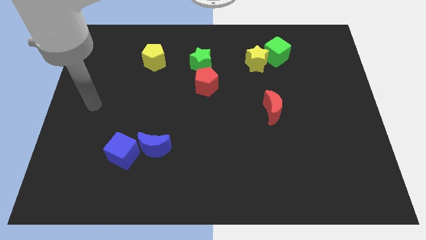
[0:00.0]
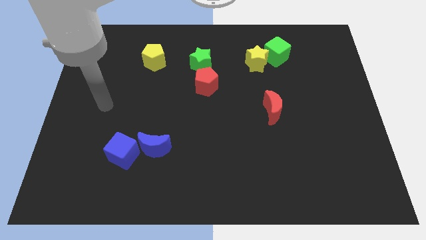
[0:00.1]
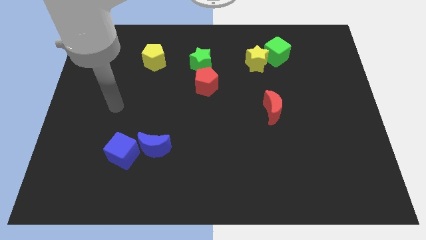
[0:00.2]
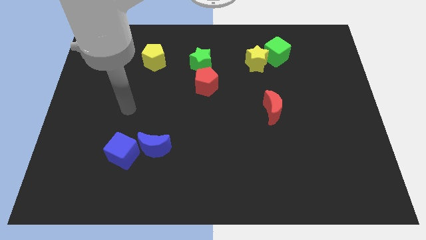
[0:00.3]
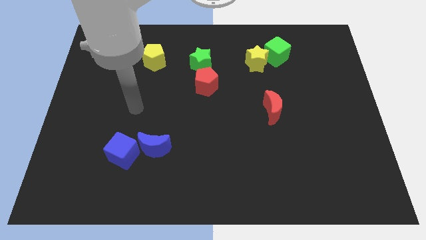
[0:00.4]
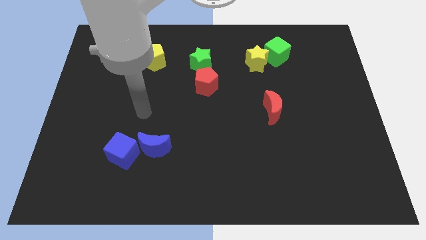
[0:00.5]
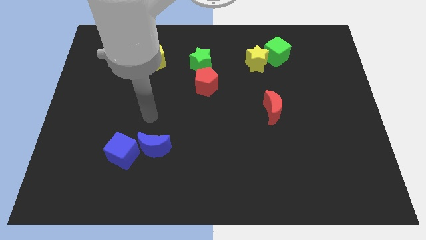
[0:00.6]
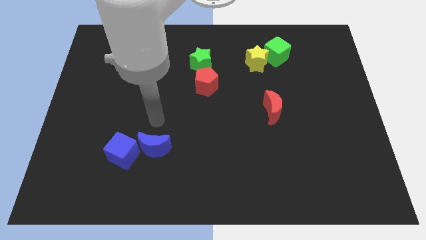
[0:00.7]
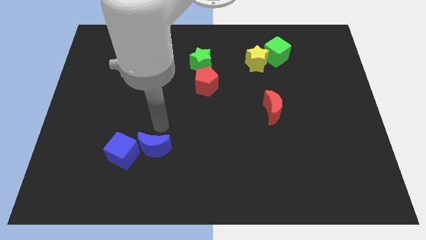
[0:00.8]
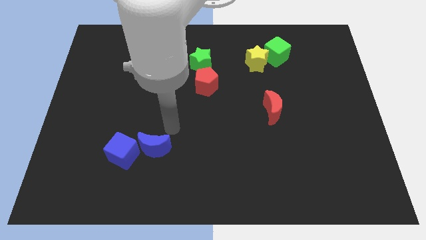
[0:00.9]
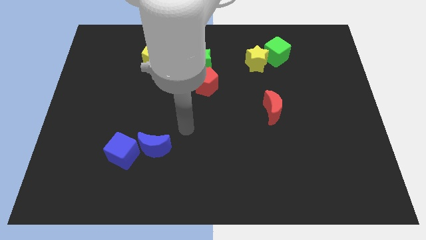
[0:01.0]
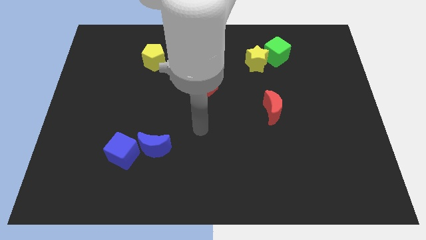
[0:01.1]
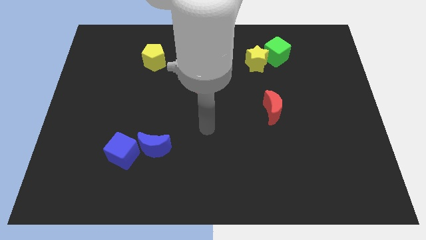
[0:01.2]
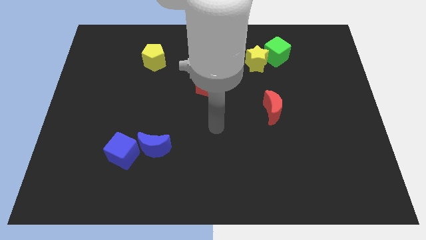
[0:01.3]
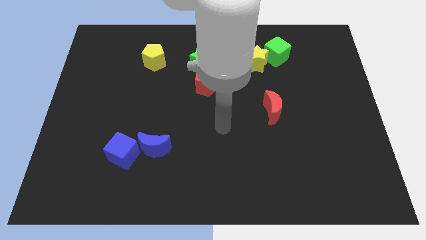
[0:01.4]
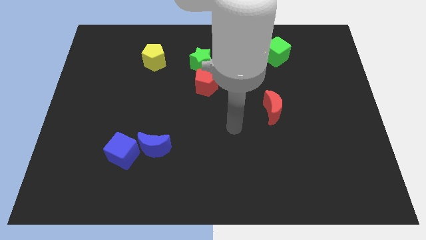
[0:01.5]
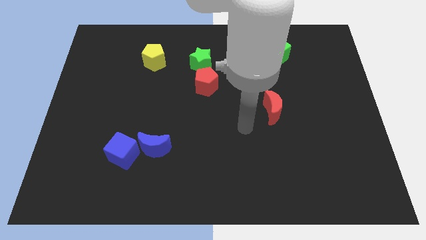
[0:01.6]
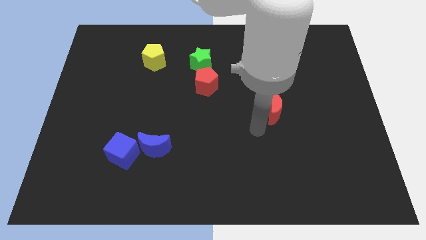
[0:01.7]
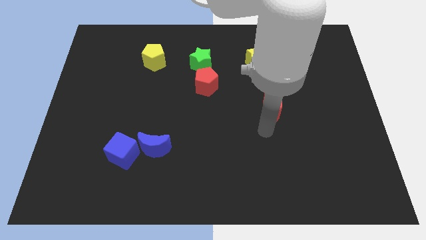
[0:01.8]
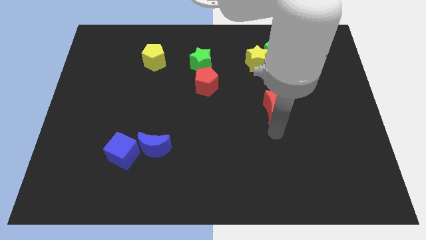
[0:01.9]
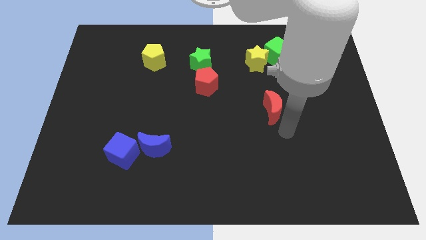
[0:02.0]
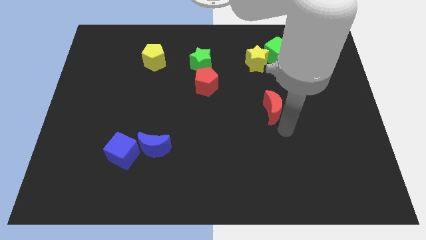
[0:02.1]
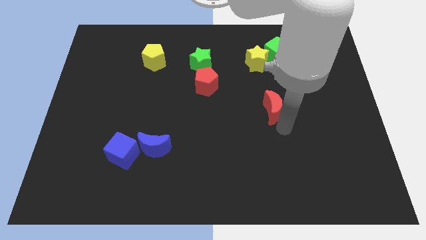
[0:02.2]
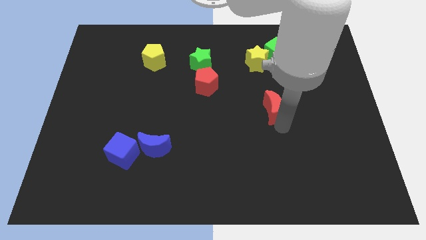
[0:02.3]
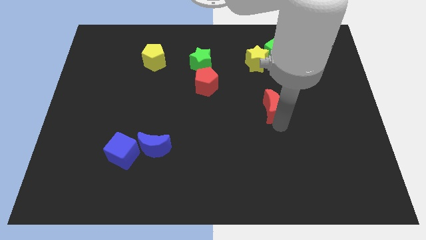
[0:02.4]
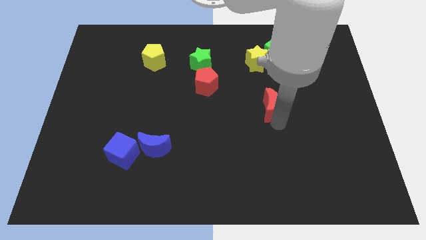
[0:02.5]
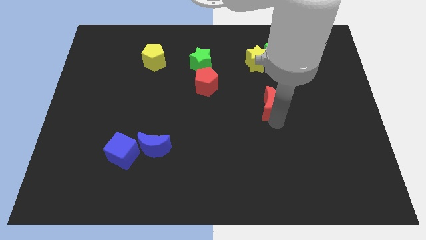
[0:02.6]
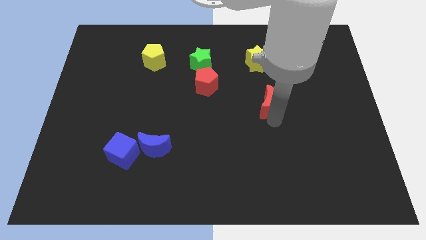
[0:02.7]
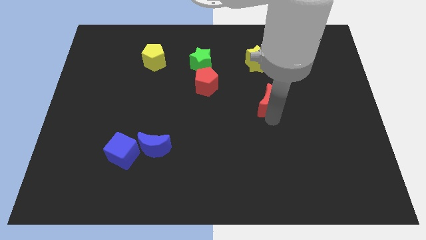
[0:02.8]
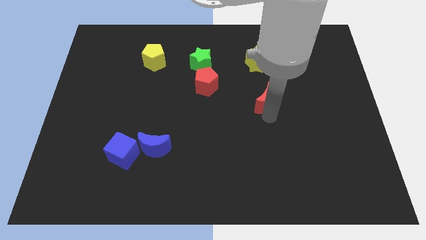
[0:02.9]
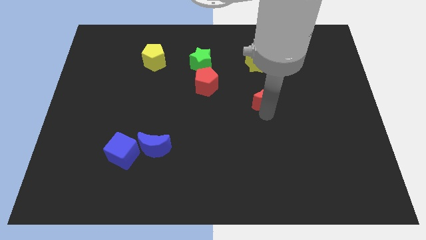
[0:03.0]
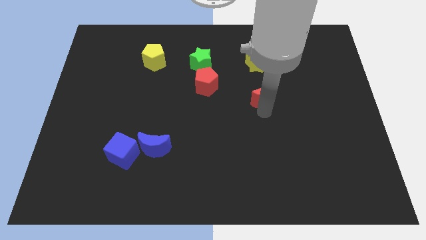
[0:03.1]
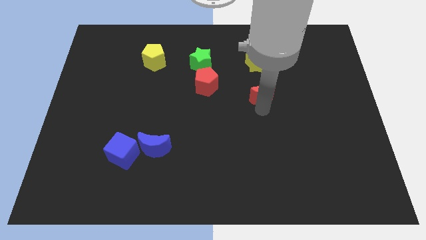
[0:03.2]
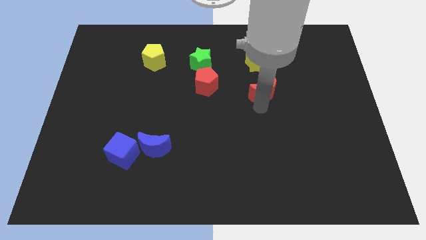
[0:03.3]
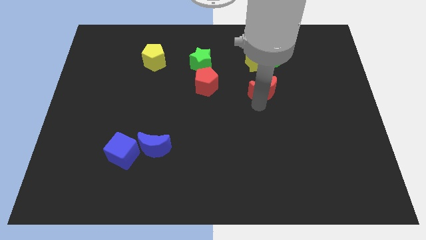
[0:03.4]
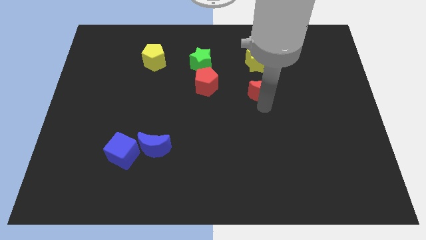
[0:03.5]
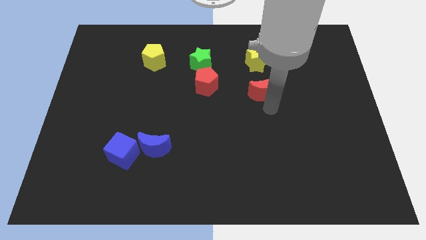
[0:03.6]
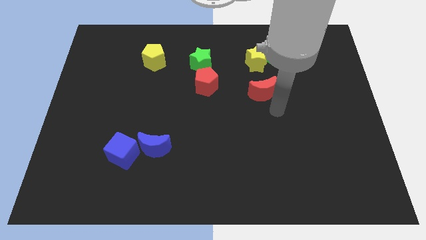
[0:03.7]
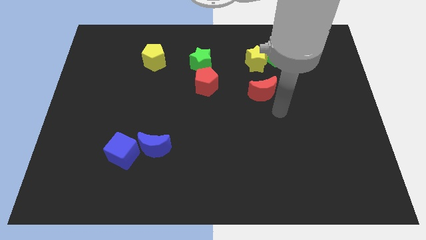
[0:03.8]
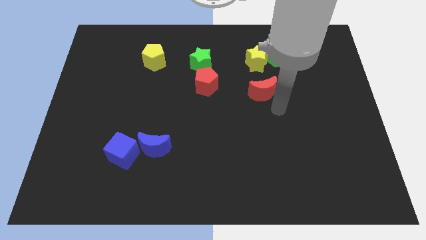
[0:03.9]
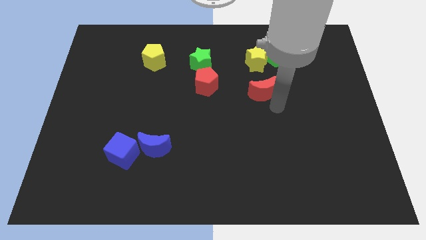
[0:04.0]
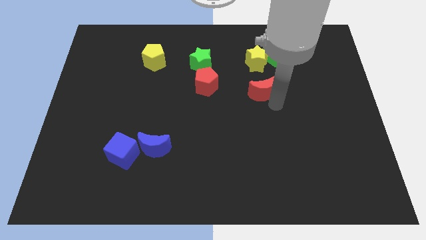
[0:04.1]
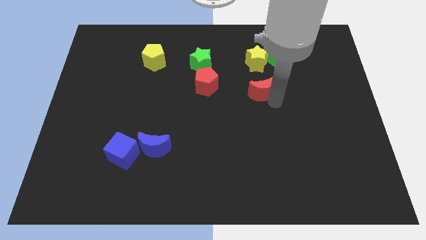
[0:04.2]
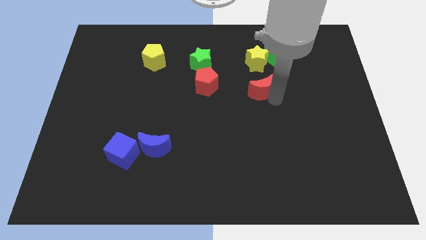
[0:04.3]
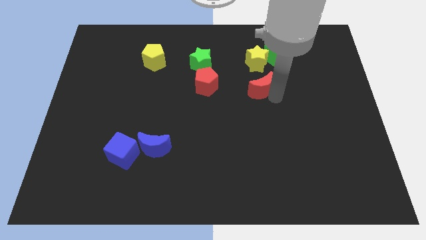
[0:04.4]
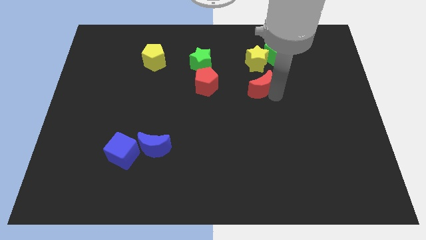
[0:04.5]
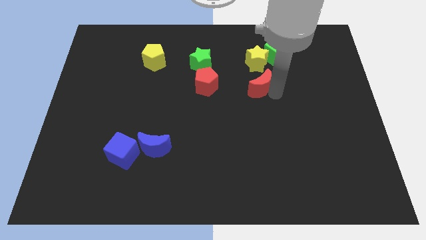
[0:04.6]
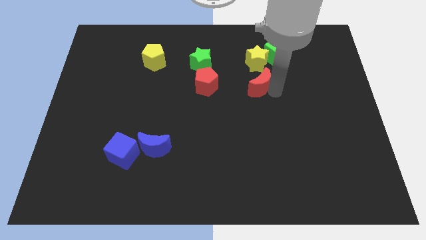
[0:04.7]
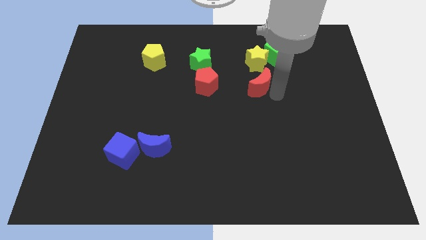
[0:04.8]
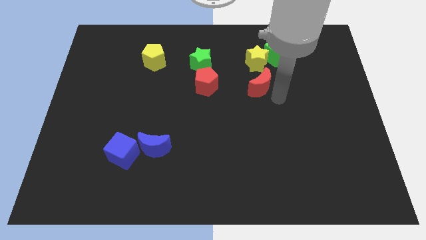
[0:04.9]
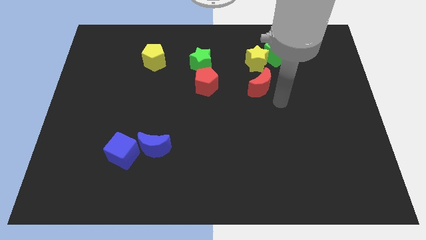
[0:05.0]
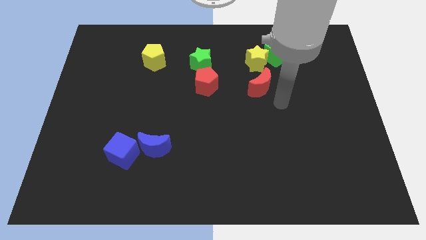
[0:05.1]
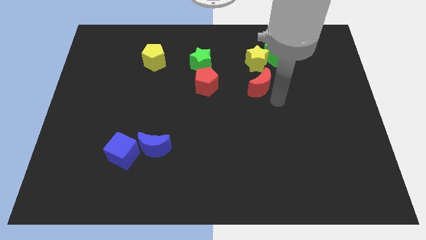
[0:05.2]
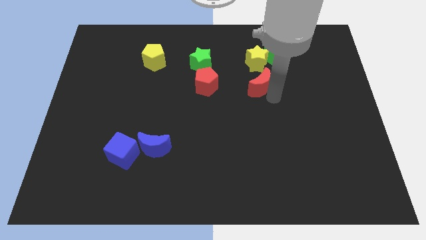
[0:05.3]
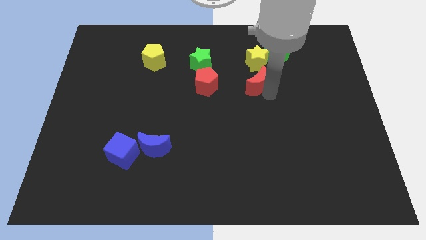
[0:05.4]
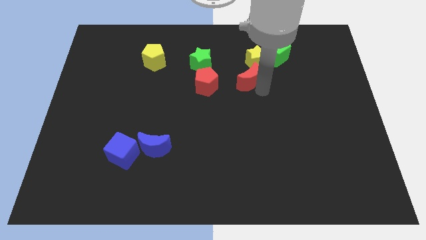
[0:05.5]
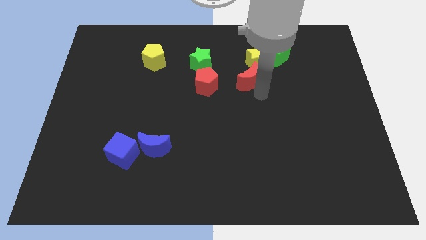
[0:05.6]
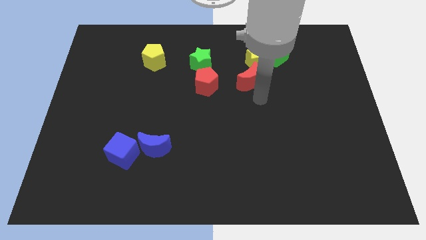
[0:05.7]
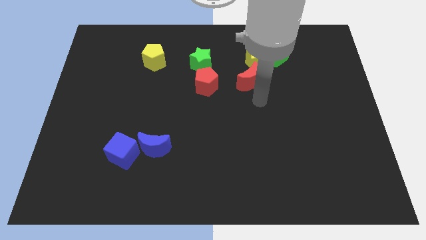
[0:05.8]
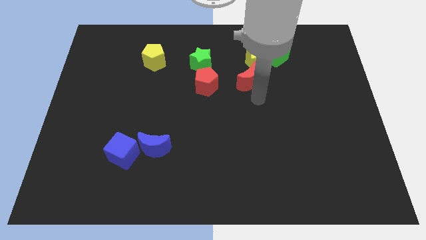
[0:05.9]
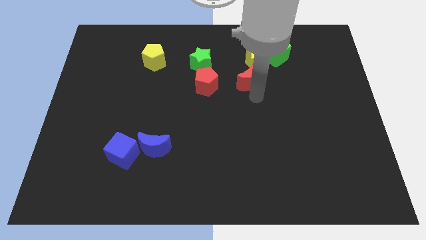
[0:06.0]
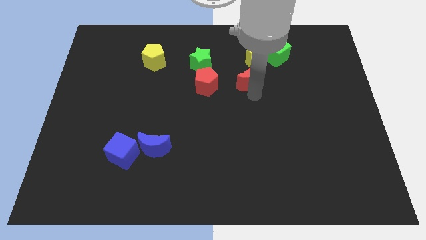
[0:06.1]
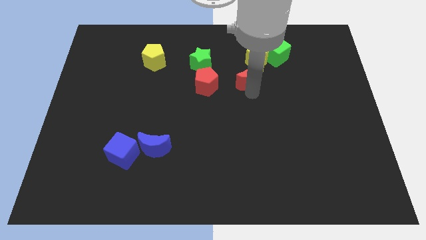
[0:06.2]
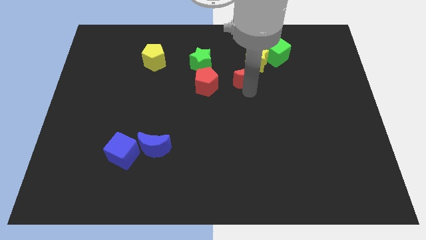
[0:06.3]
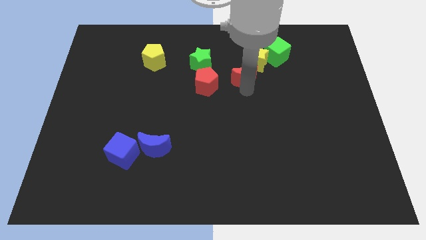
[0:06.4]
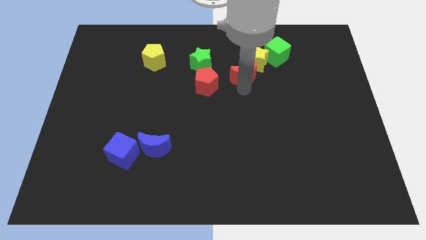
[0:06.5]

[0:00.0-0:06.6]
slide the red moon to the right of the green star

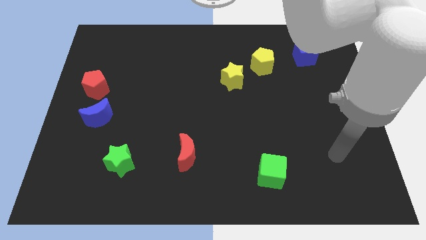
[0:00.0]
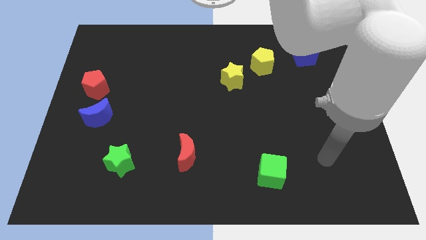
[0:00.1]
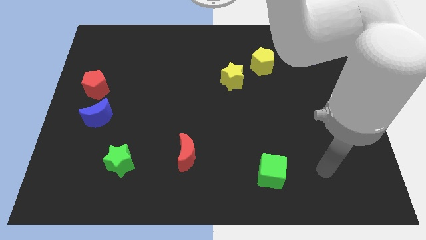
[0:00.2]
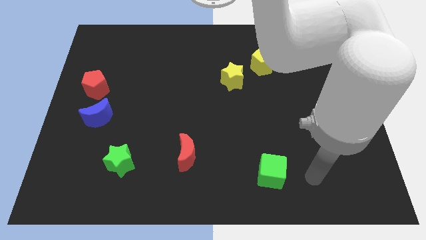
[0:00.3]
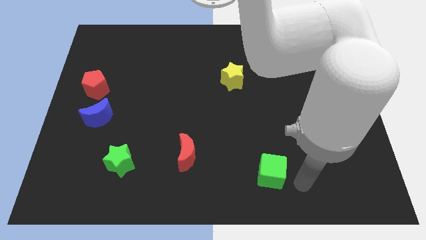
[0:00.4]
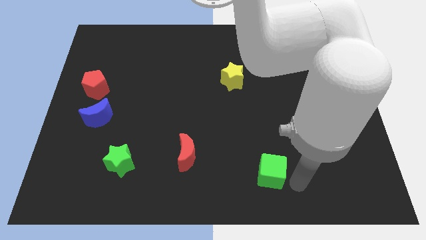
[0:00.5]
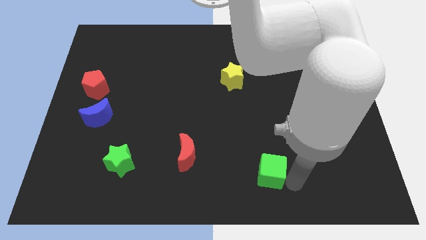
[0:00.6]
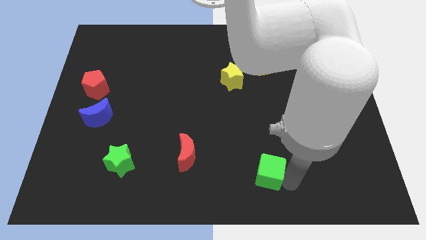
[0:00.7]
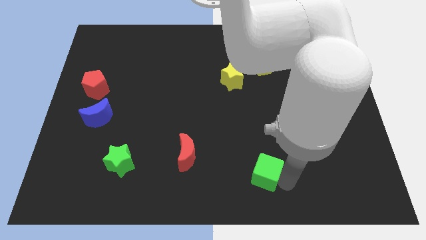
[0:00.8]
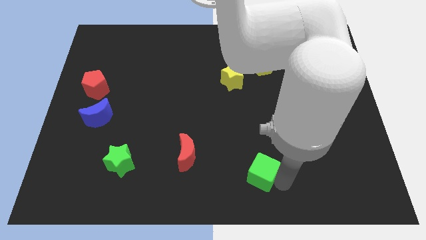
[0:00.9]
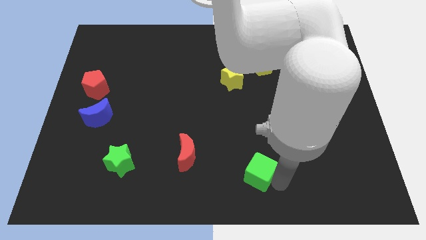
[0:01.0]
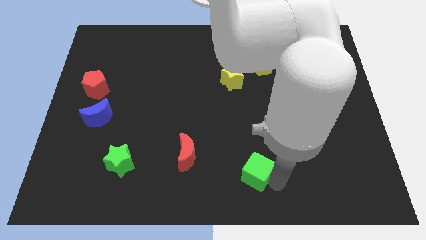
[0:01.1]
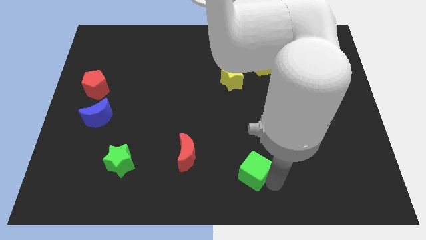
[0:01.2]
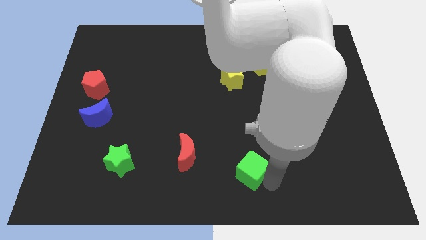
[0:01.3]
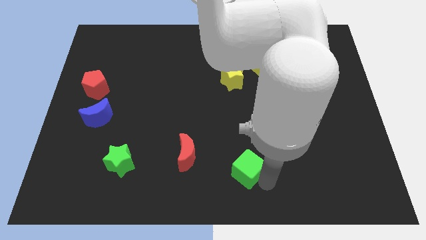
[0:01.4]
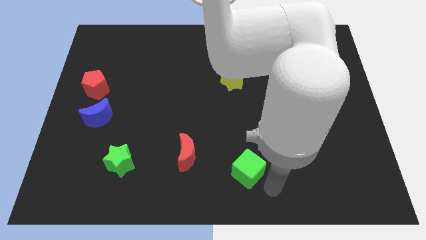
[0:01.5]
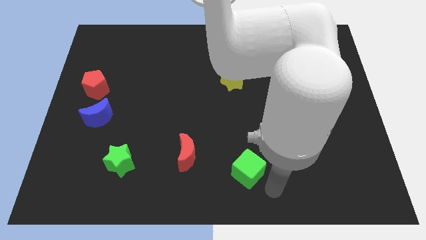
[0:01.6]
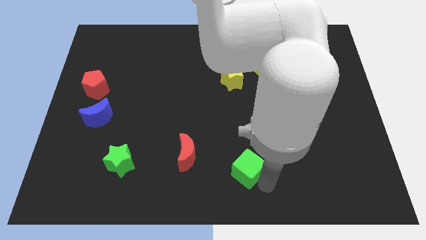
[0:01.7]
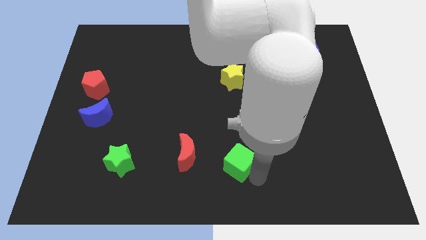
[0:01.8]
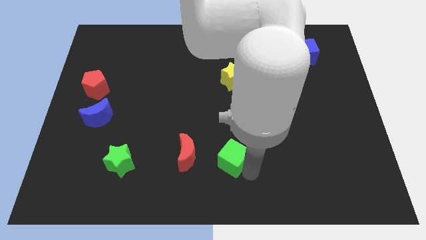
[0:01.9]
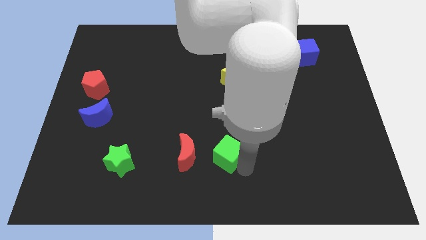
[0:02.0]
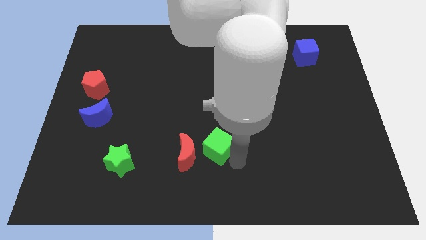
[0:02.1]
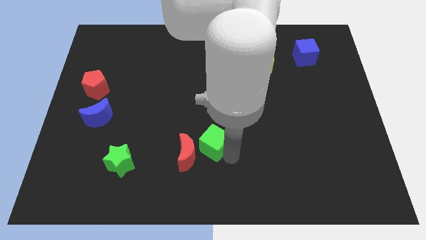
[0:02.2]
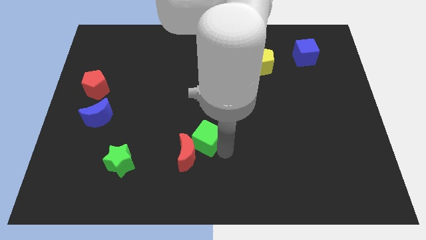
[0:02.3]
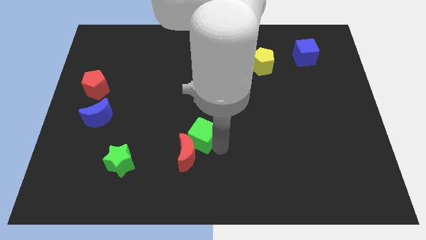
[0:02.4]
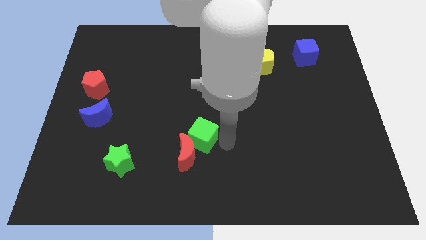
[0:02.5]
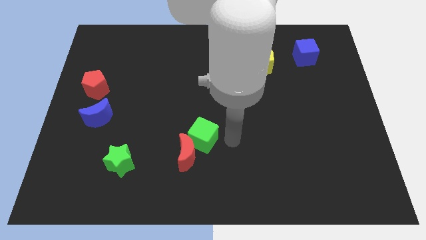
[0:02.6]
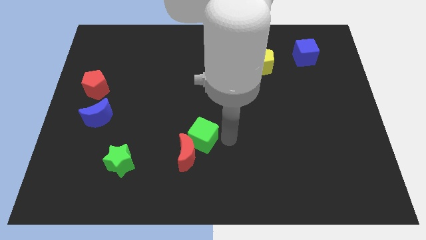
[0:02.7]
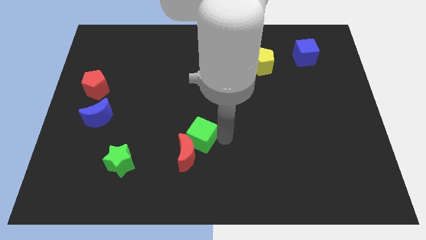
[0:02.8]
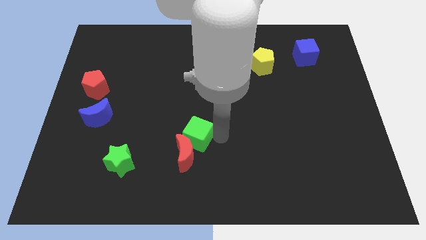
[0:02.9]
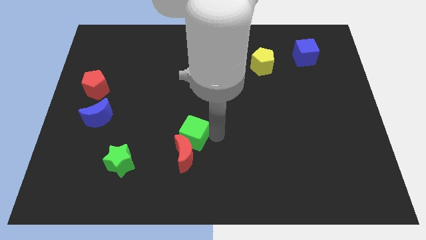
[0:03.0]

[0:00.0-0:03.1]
move the green cube diagonally up and to the left of the red moon
